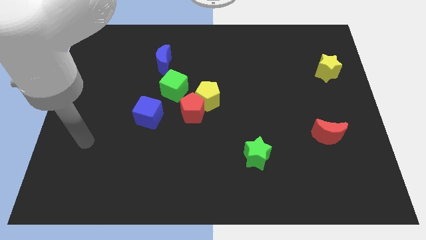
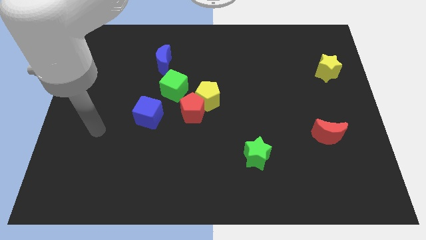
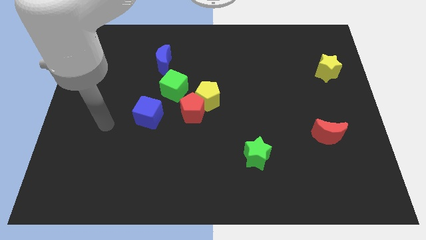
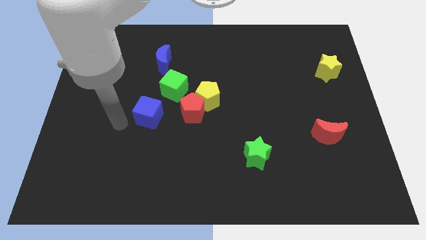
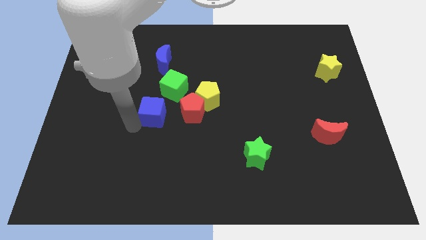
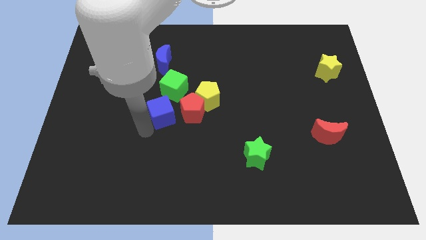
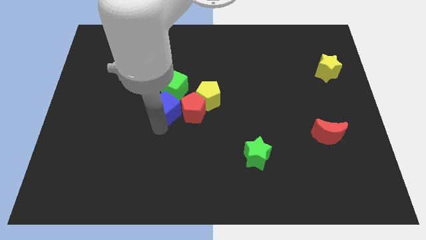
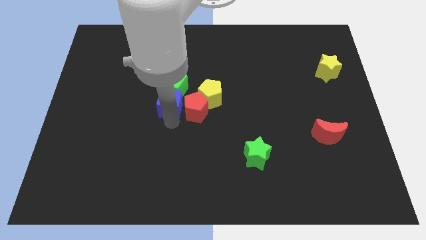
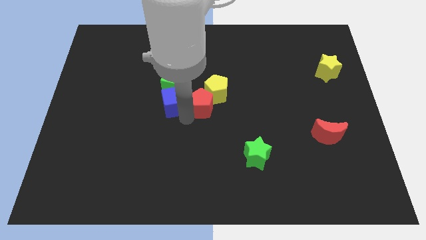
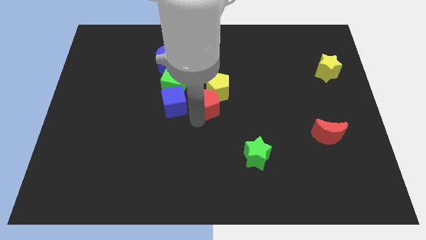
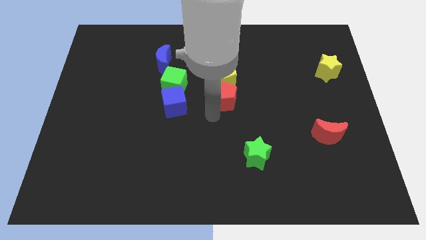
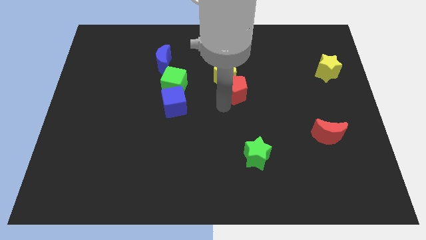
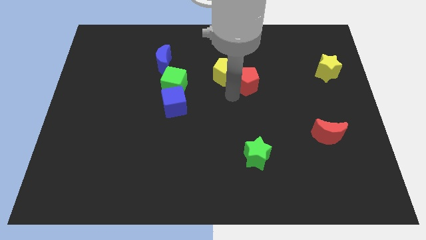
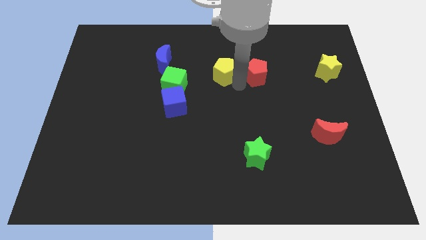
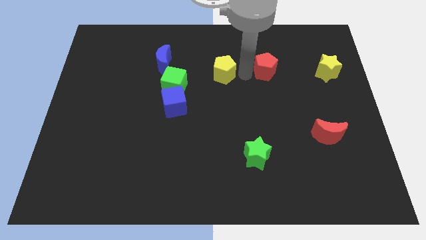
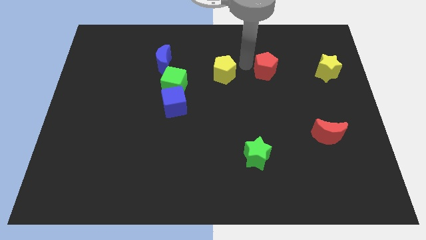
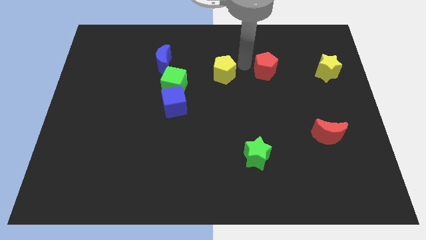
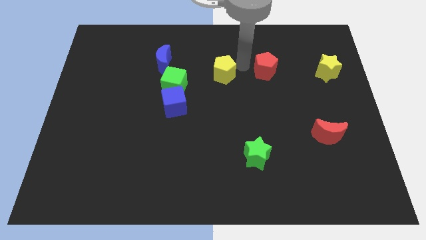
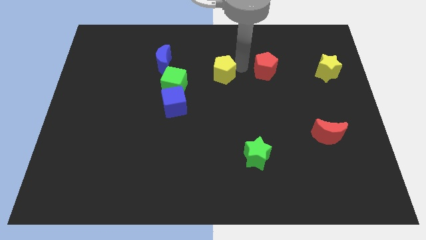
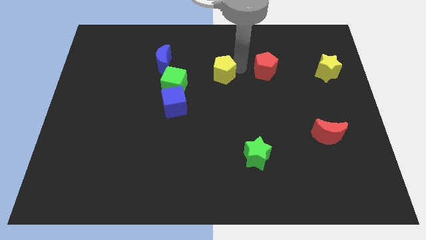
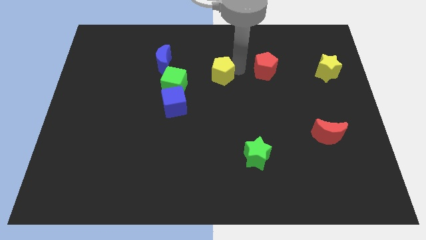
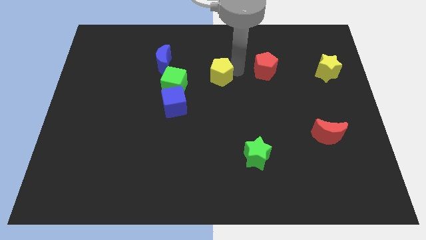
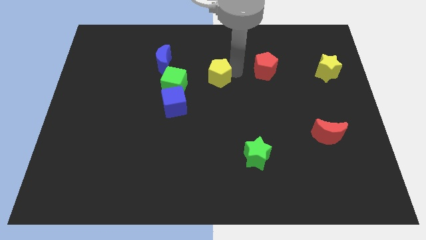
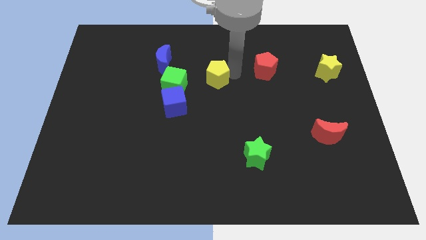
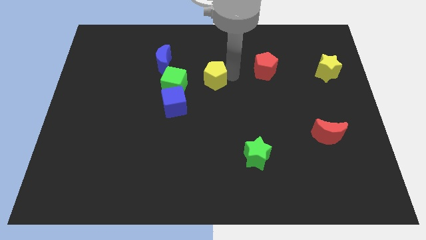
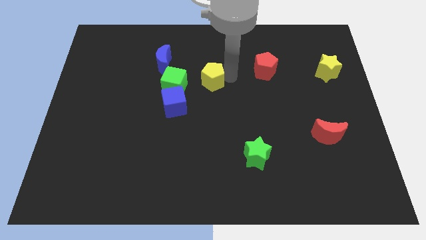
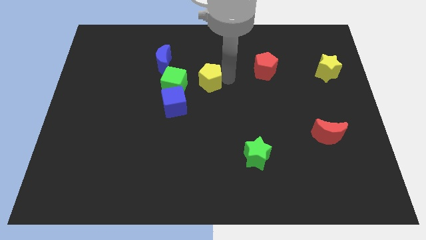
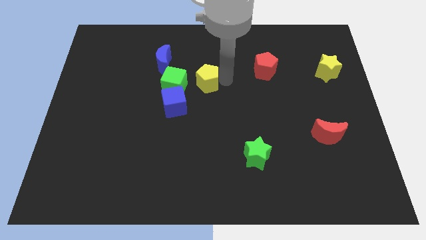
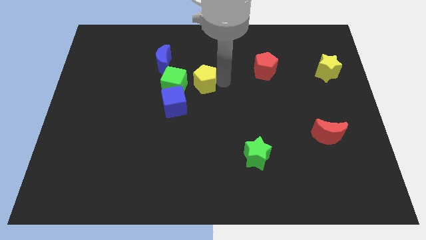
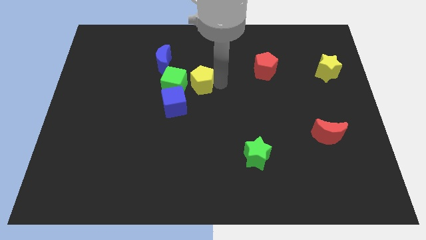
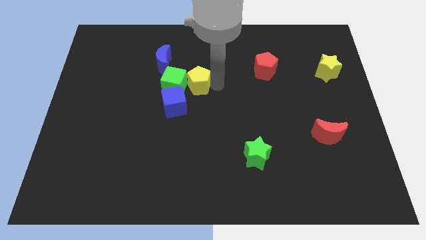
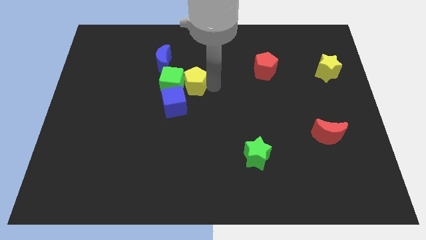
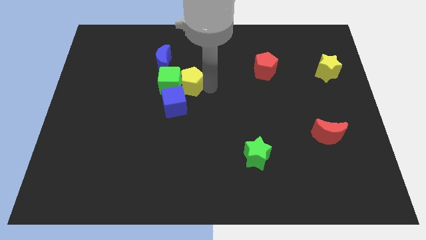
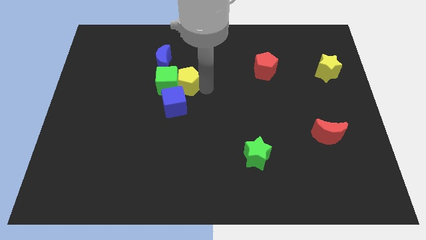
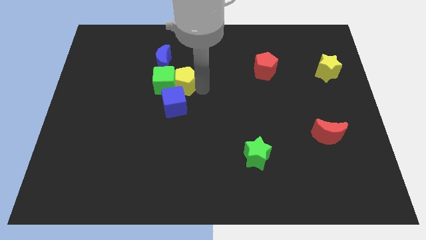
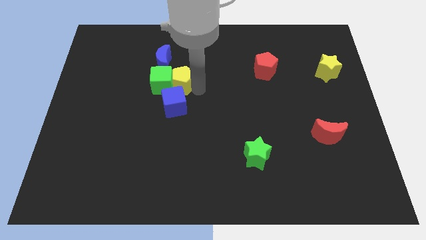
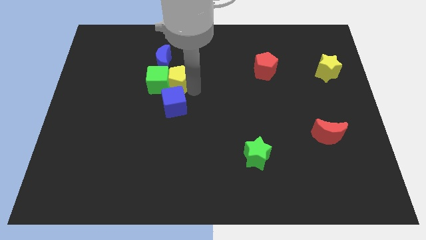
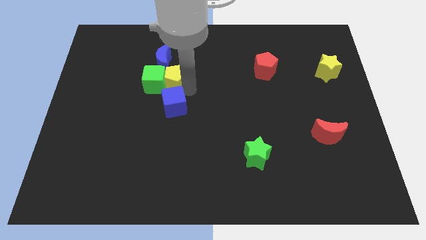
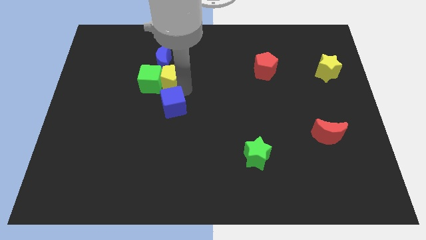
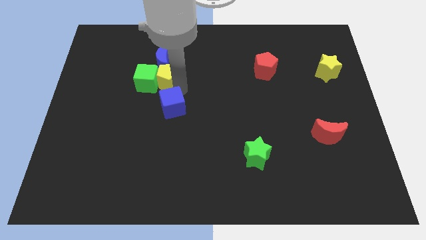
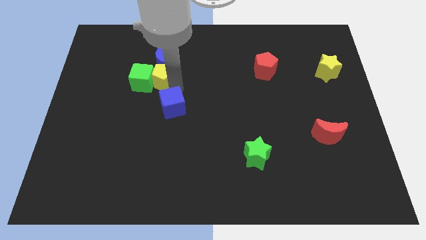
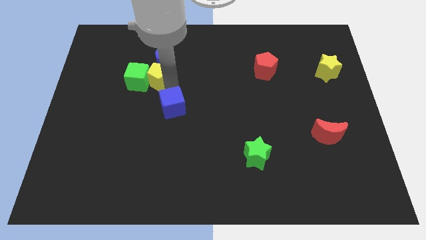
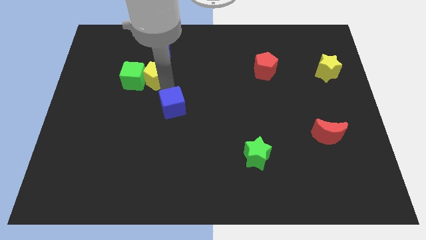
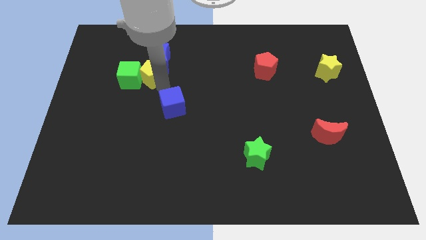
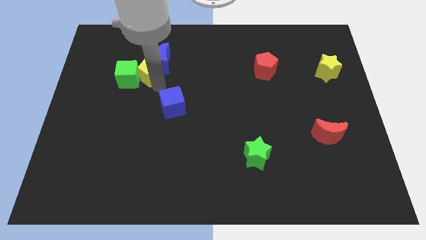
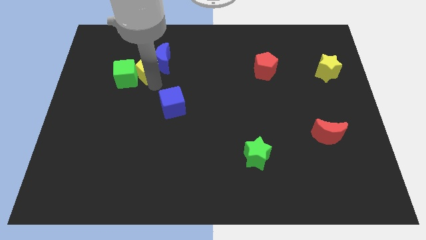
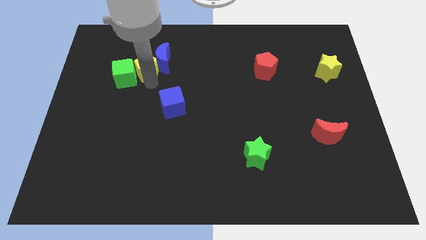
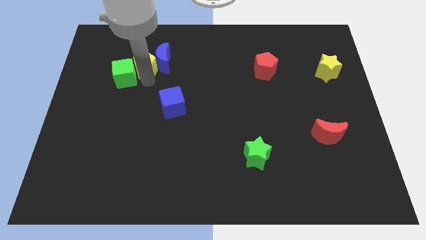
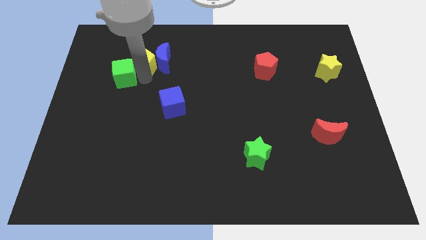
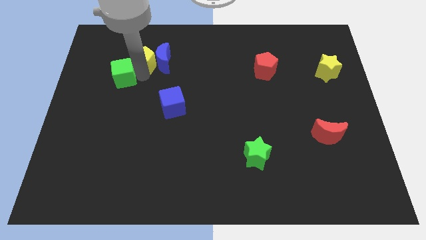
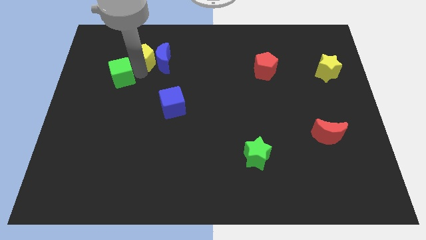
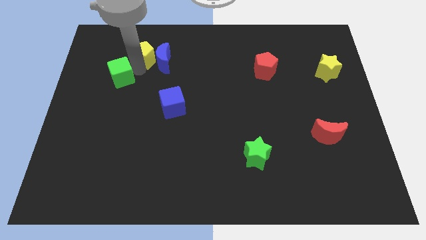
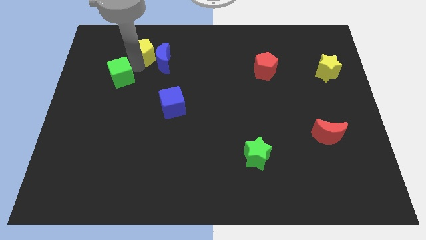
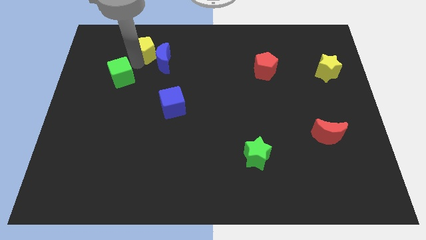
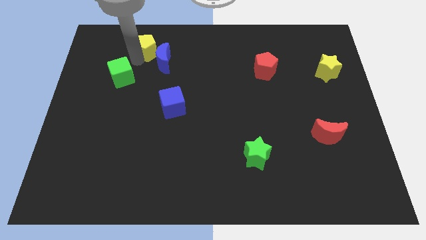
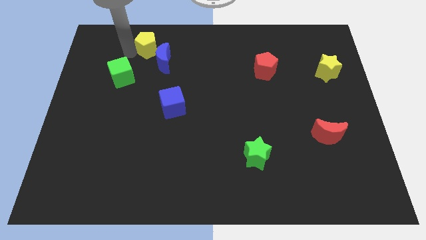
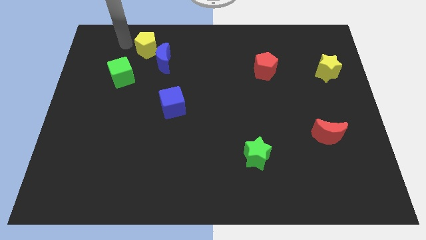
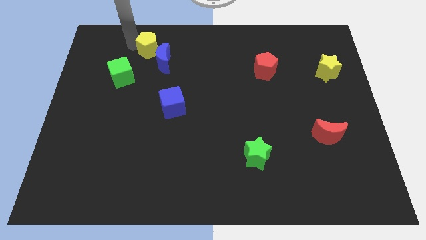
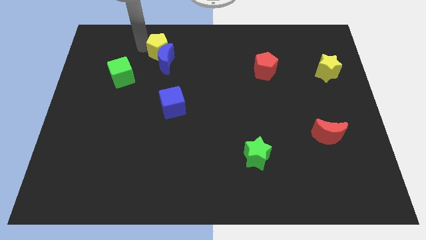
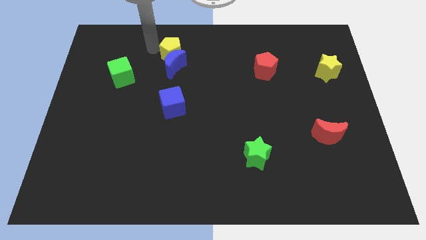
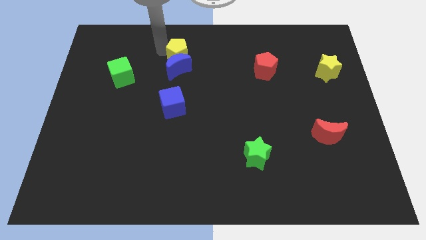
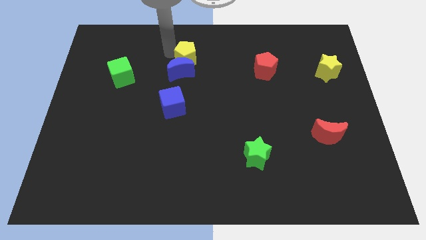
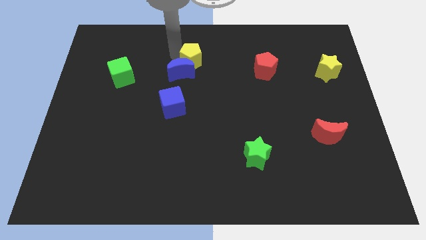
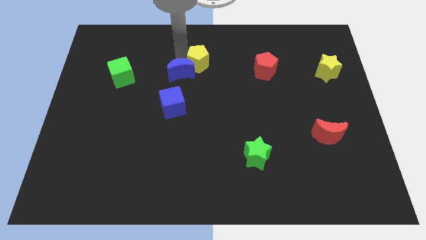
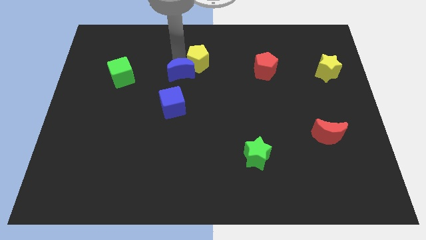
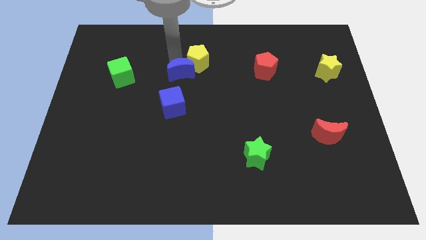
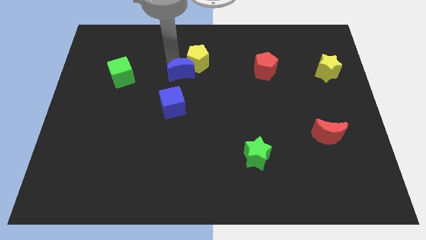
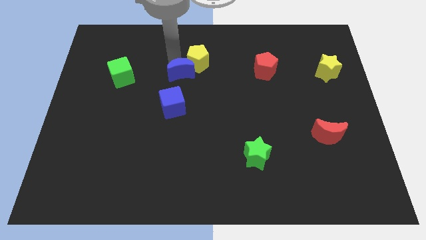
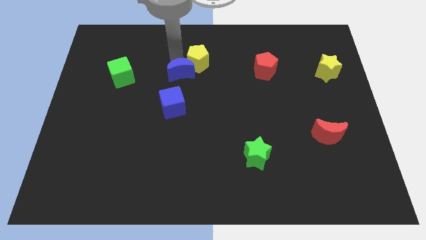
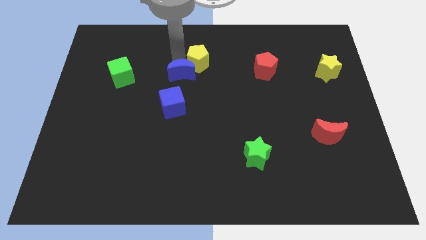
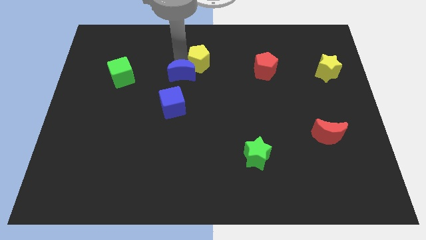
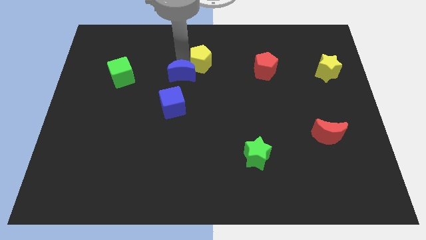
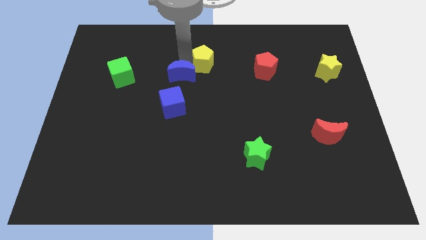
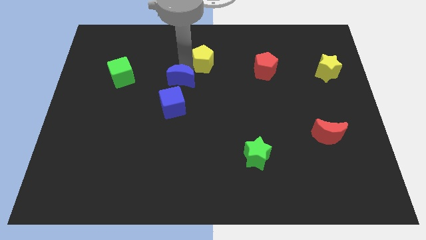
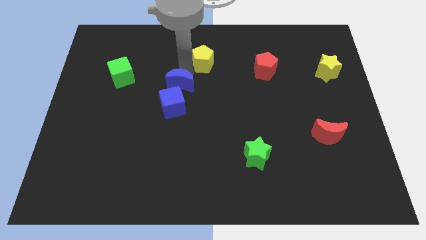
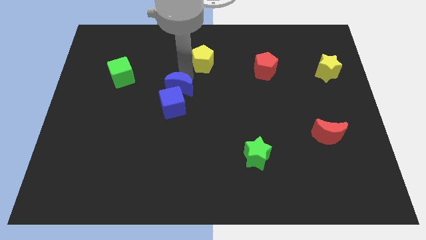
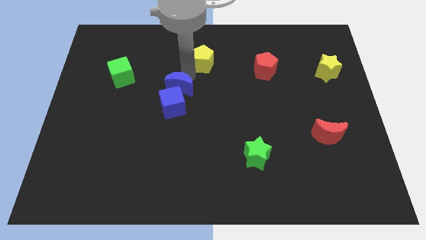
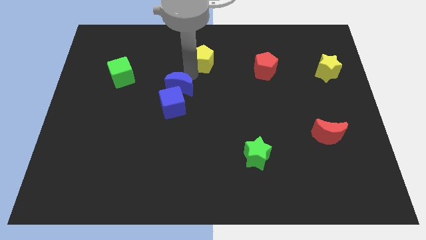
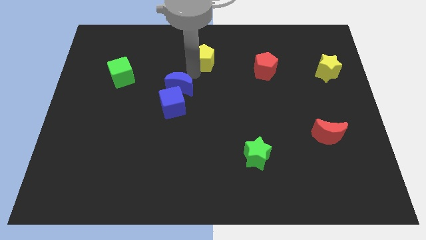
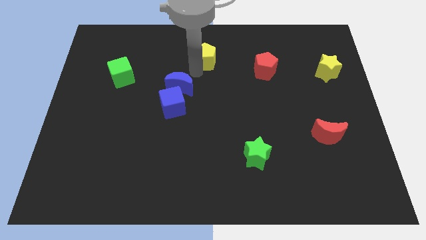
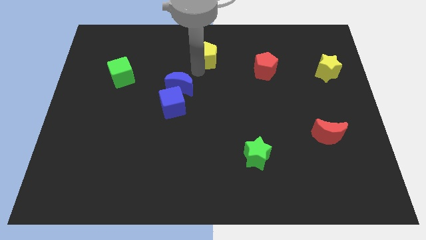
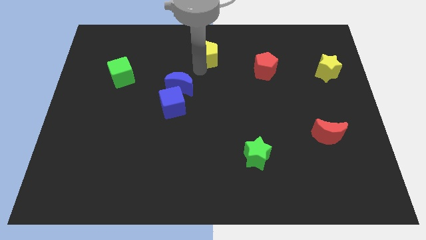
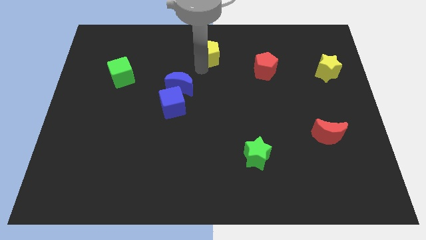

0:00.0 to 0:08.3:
put the yellow pentagon to the top
